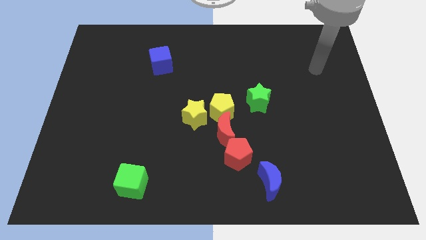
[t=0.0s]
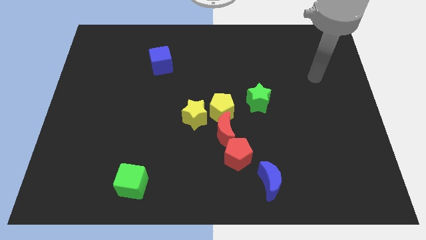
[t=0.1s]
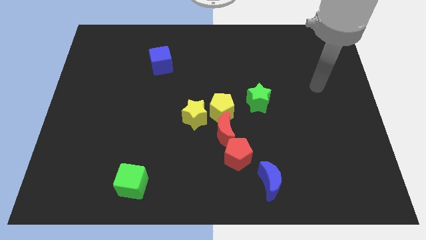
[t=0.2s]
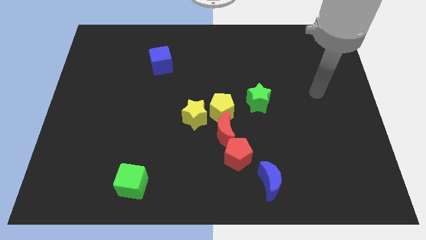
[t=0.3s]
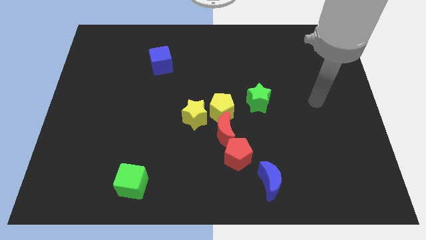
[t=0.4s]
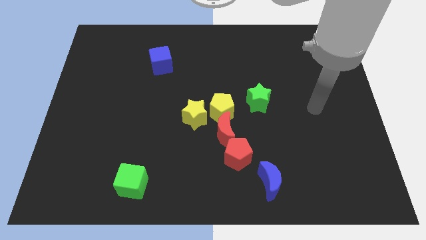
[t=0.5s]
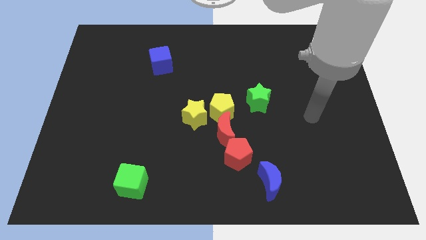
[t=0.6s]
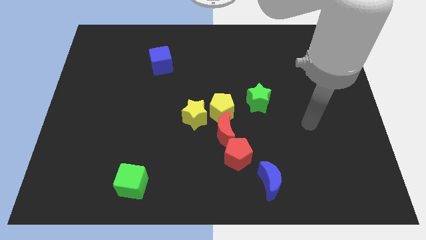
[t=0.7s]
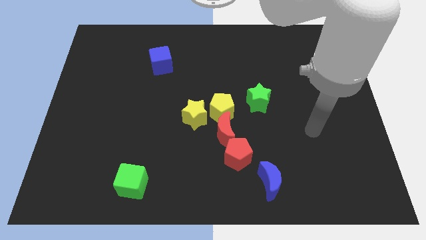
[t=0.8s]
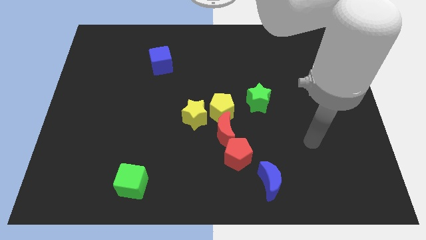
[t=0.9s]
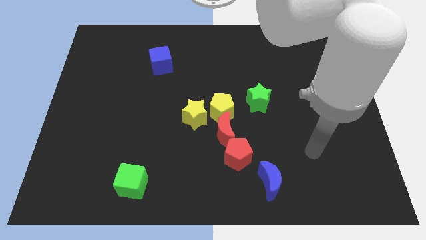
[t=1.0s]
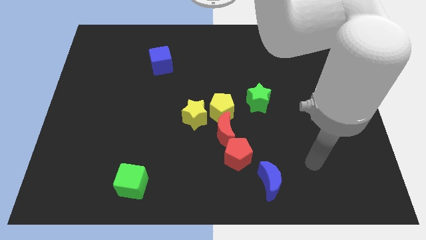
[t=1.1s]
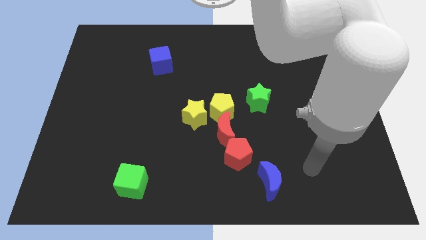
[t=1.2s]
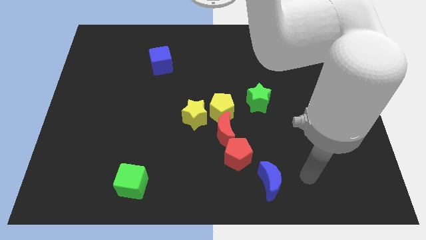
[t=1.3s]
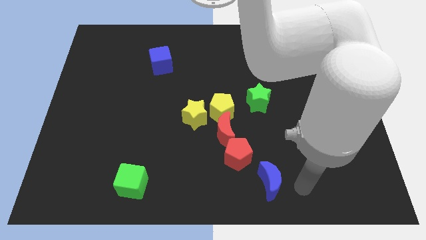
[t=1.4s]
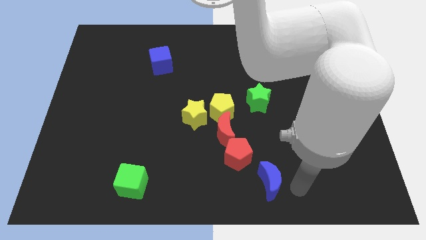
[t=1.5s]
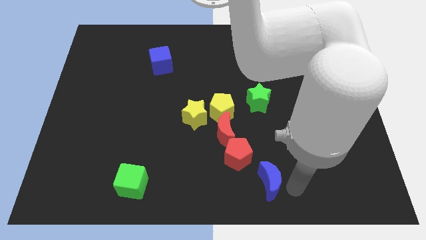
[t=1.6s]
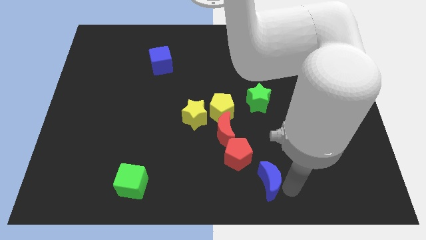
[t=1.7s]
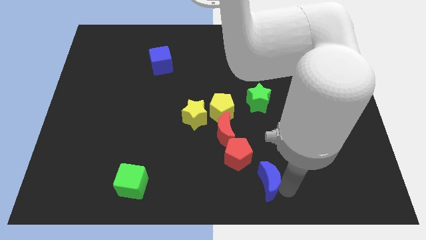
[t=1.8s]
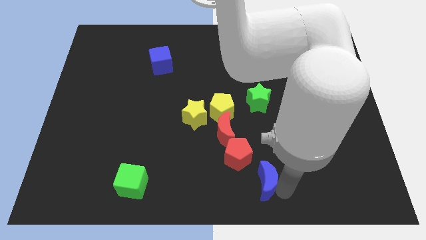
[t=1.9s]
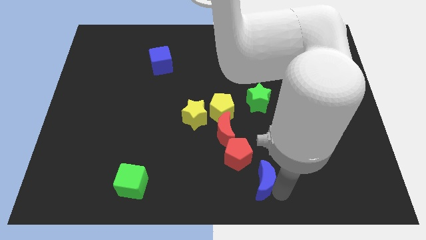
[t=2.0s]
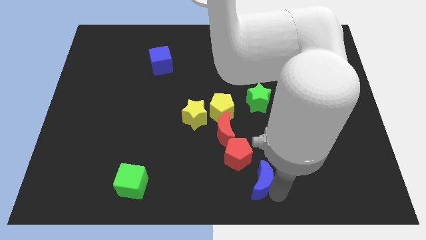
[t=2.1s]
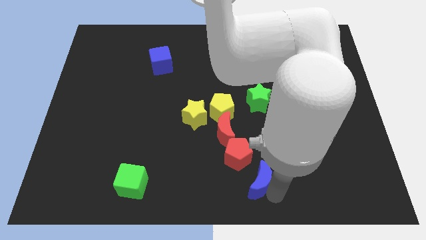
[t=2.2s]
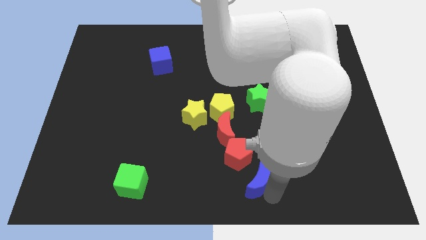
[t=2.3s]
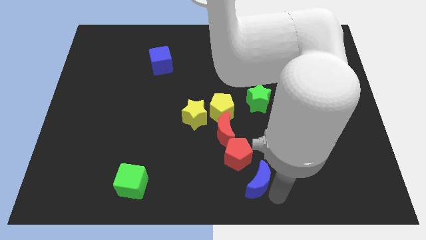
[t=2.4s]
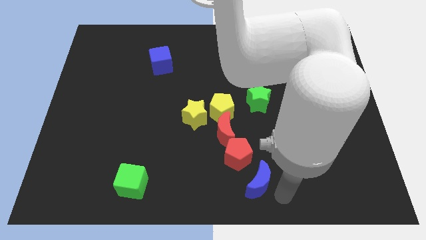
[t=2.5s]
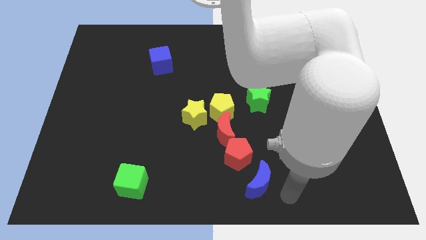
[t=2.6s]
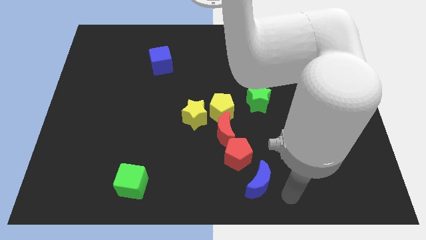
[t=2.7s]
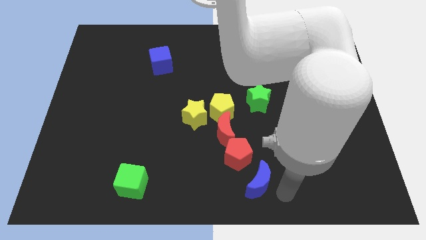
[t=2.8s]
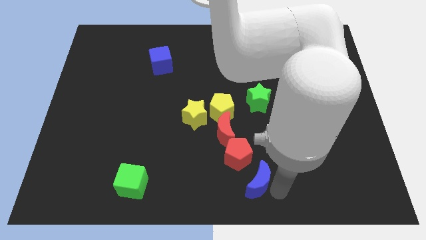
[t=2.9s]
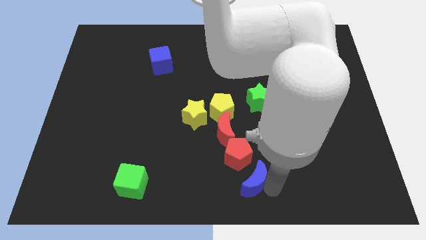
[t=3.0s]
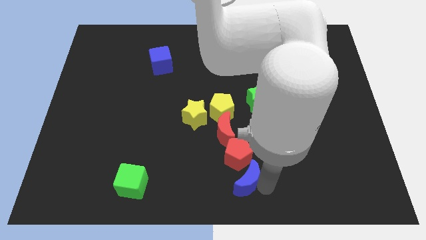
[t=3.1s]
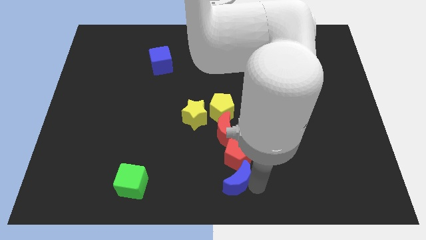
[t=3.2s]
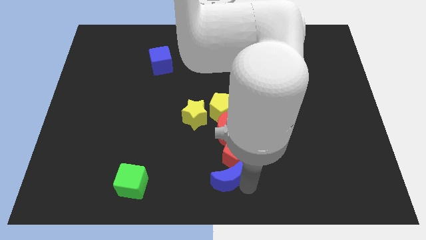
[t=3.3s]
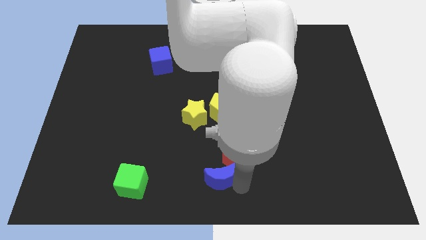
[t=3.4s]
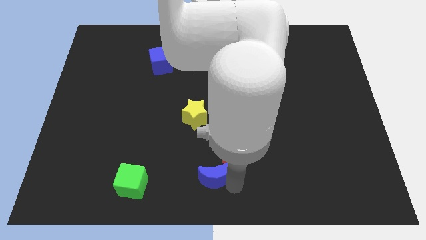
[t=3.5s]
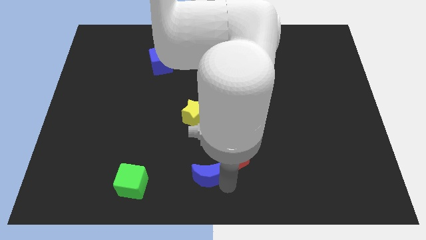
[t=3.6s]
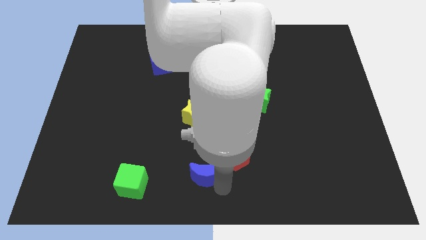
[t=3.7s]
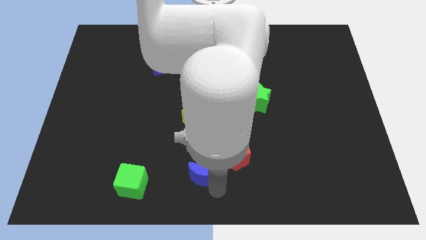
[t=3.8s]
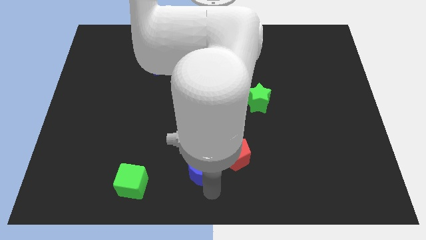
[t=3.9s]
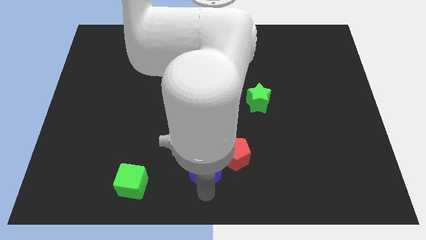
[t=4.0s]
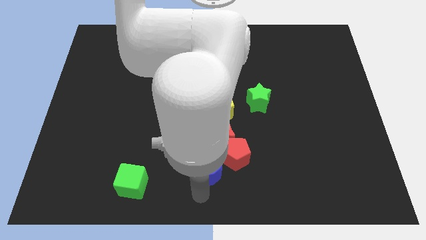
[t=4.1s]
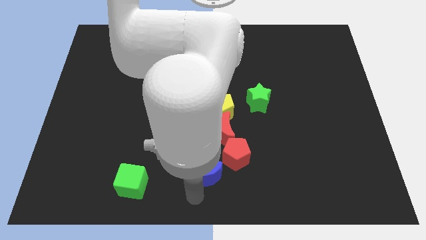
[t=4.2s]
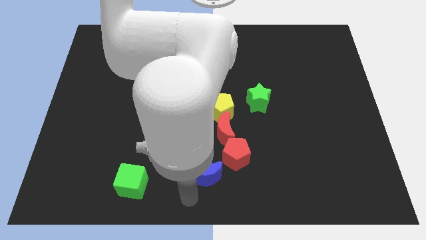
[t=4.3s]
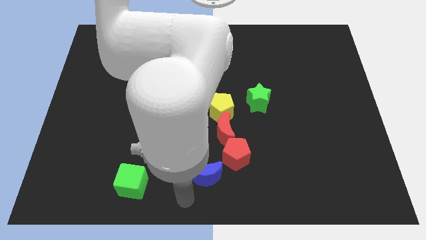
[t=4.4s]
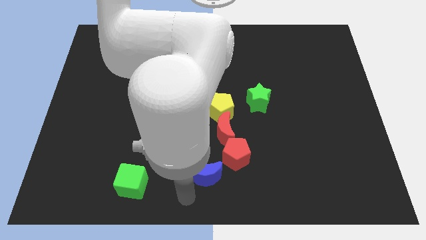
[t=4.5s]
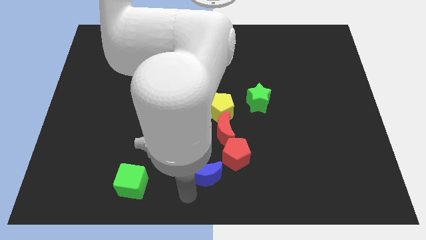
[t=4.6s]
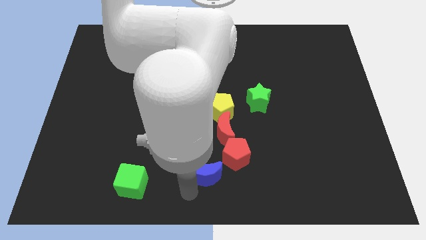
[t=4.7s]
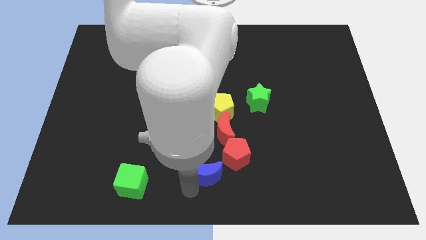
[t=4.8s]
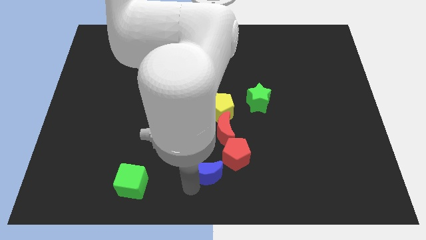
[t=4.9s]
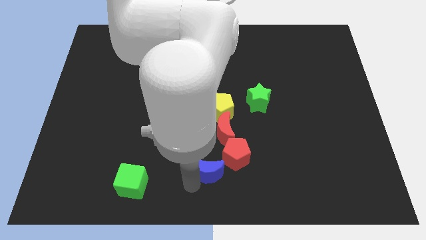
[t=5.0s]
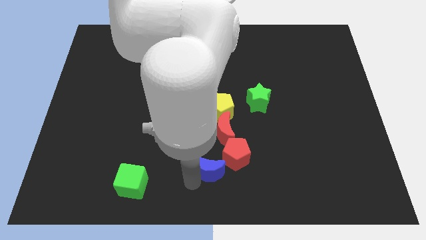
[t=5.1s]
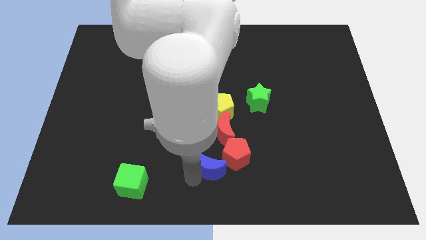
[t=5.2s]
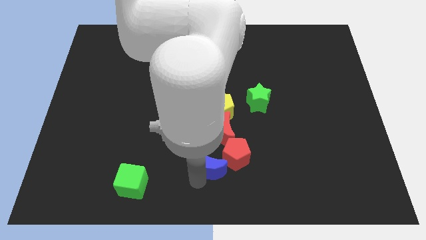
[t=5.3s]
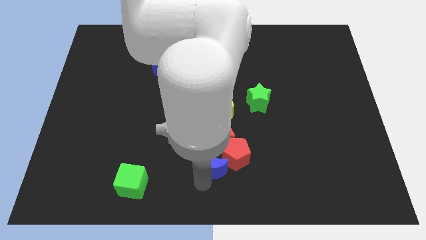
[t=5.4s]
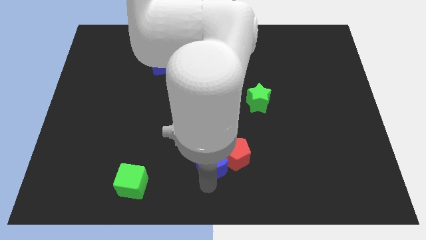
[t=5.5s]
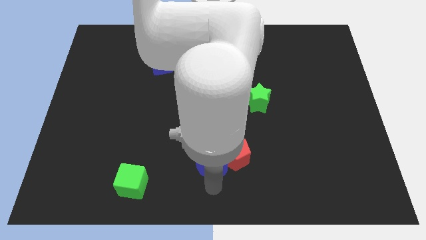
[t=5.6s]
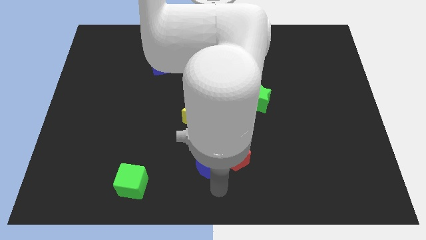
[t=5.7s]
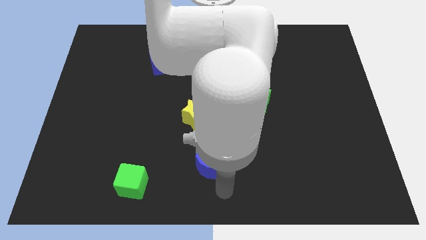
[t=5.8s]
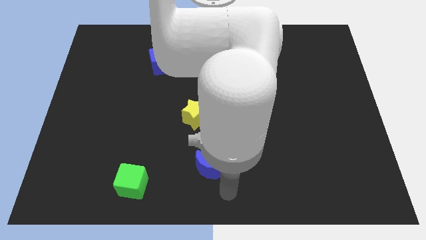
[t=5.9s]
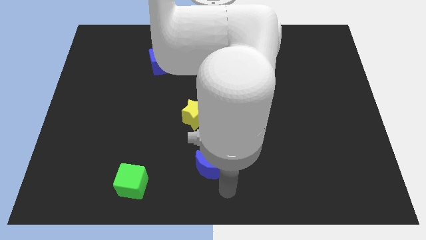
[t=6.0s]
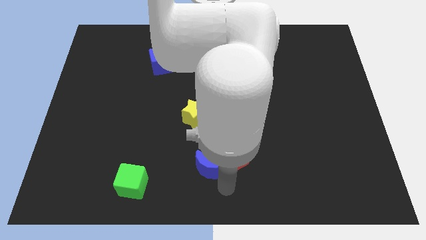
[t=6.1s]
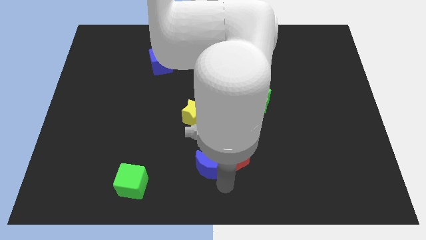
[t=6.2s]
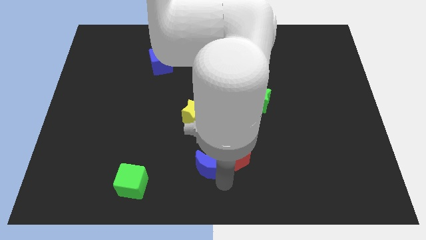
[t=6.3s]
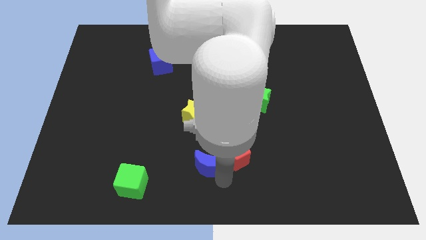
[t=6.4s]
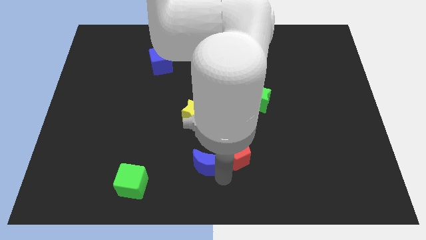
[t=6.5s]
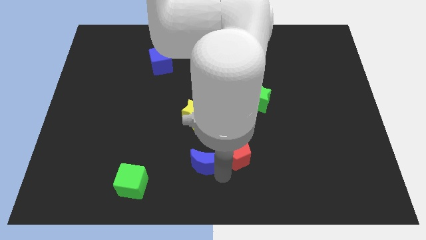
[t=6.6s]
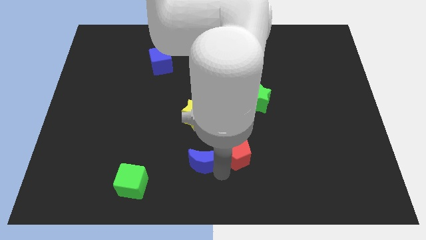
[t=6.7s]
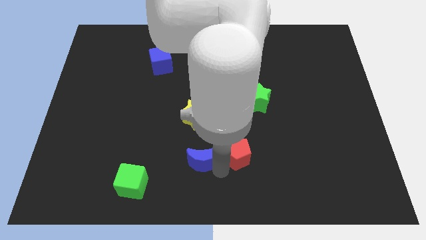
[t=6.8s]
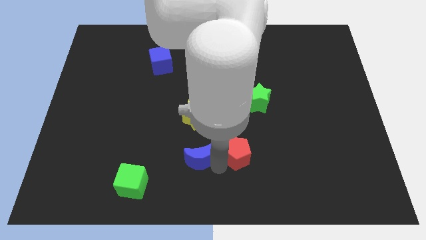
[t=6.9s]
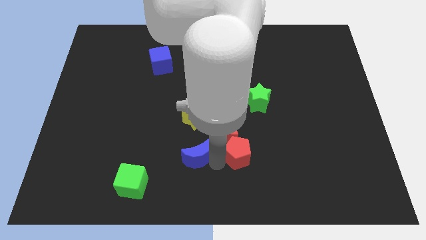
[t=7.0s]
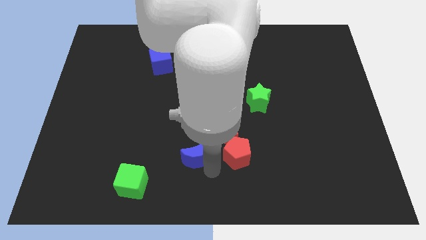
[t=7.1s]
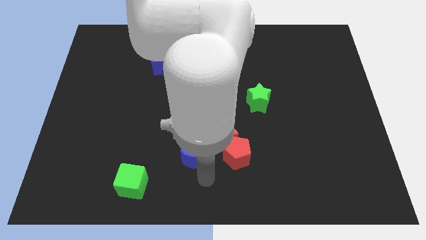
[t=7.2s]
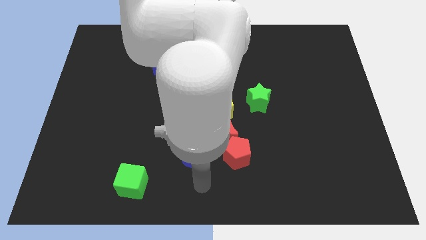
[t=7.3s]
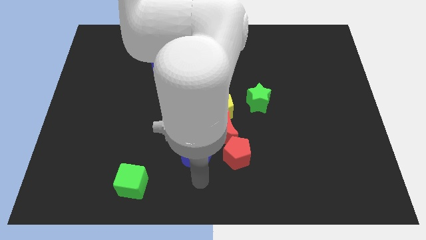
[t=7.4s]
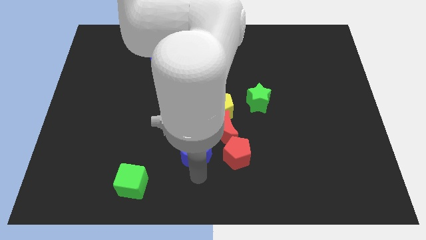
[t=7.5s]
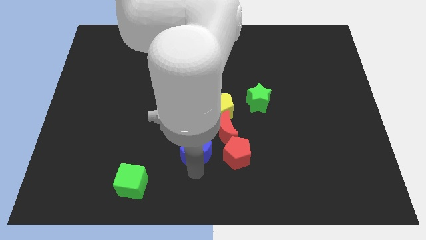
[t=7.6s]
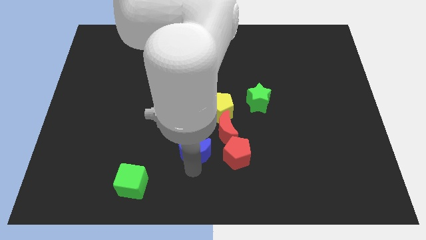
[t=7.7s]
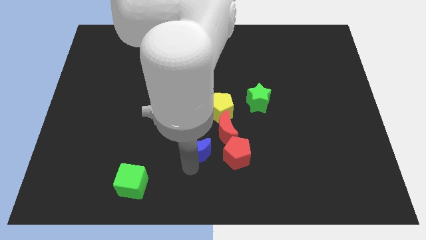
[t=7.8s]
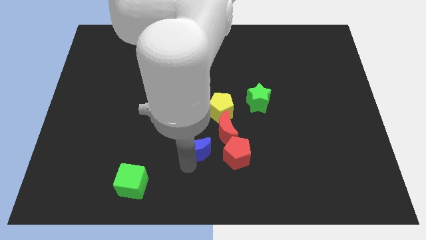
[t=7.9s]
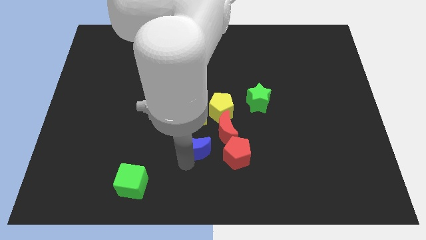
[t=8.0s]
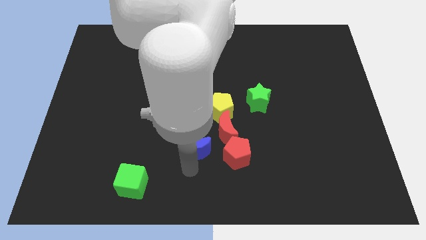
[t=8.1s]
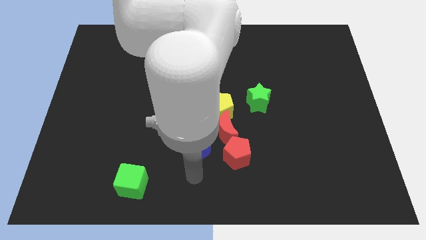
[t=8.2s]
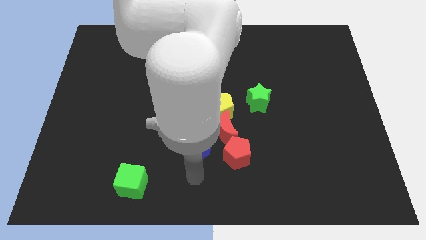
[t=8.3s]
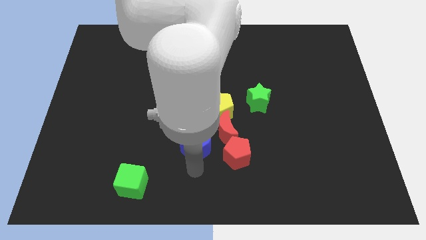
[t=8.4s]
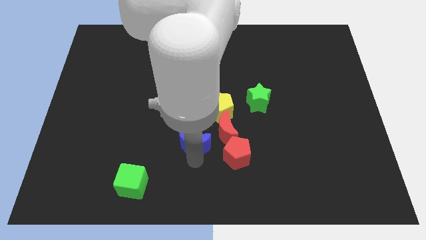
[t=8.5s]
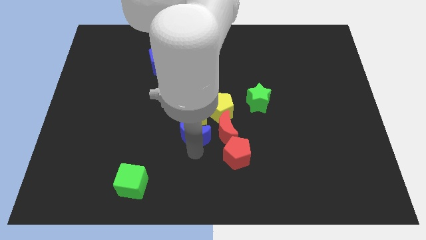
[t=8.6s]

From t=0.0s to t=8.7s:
move the blue moon next to the yellow star
